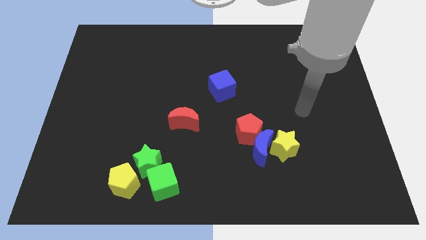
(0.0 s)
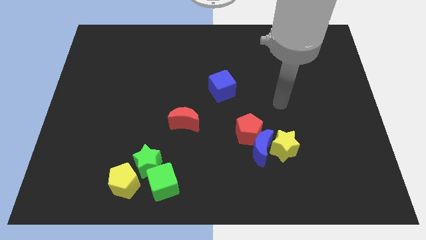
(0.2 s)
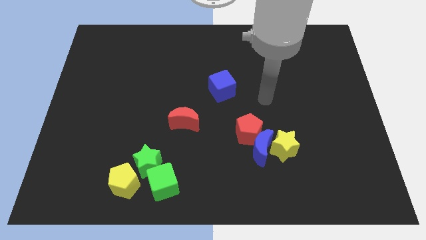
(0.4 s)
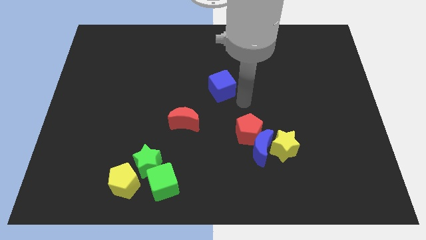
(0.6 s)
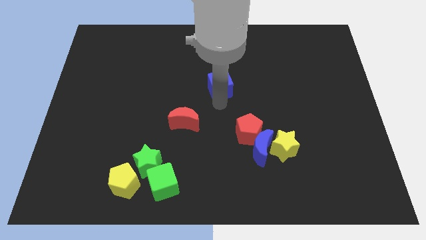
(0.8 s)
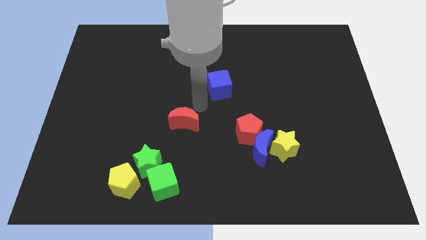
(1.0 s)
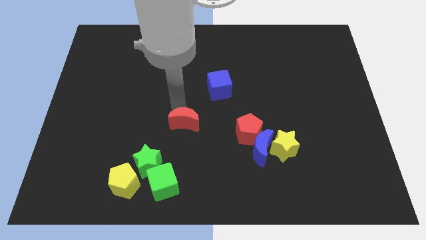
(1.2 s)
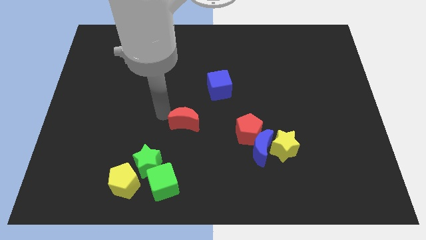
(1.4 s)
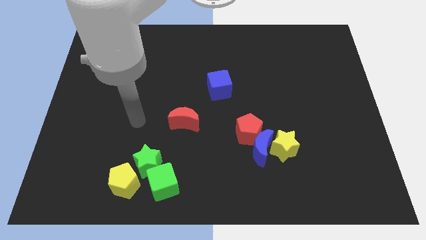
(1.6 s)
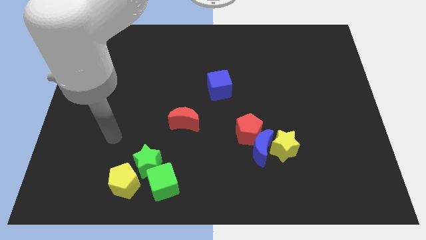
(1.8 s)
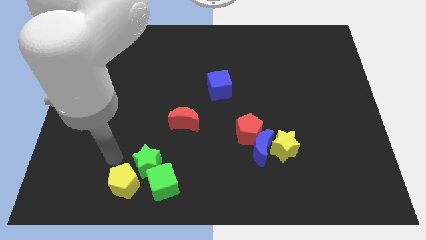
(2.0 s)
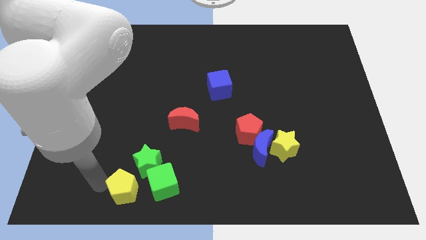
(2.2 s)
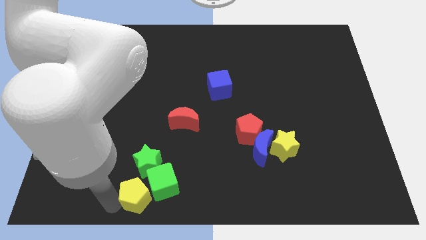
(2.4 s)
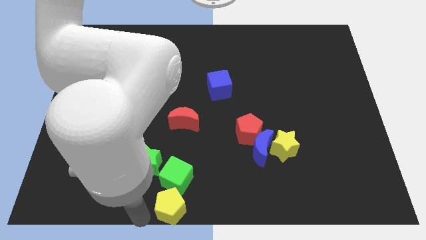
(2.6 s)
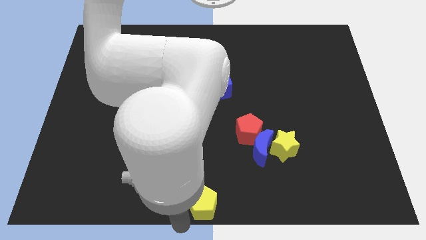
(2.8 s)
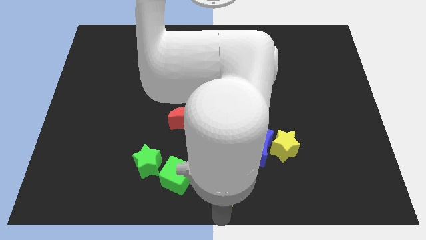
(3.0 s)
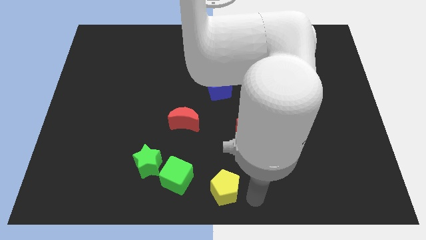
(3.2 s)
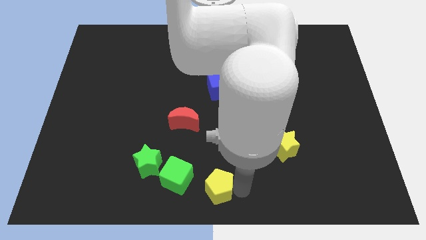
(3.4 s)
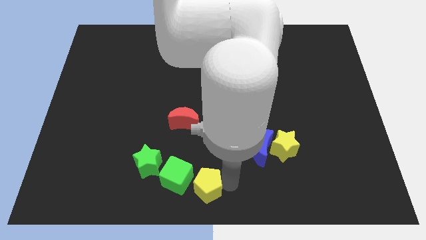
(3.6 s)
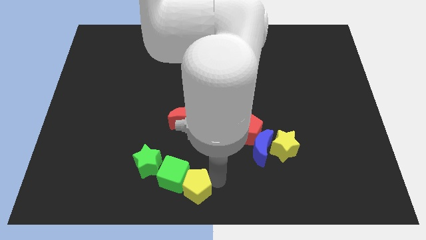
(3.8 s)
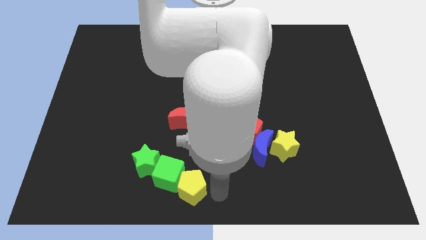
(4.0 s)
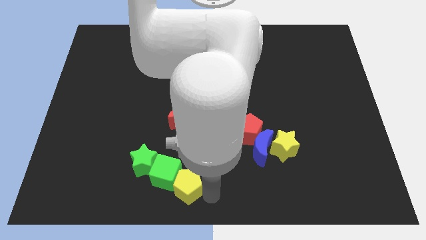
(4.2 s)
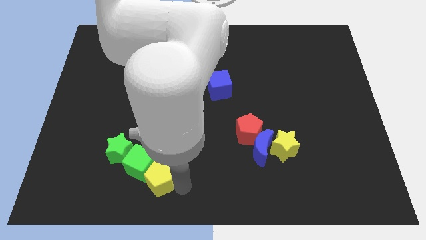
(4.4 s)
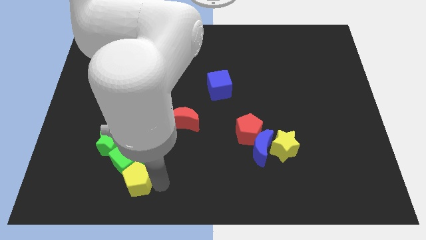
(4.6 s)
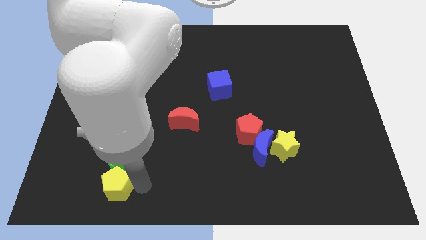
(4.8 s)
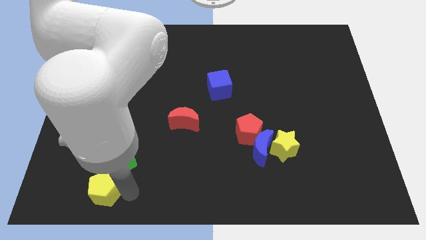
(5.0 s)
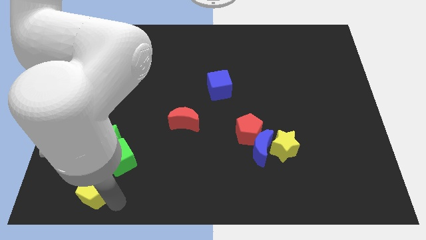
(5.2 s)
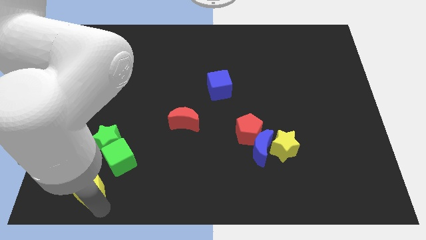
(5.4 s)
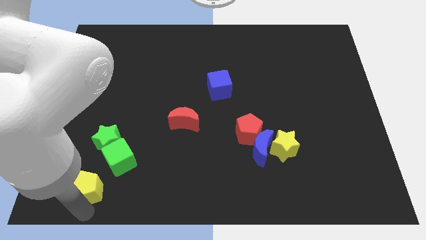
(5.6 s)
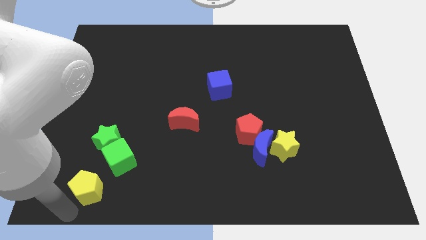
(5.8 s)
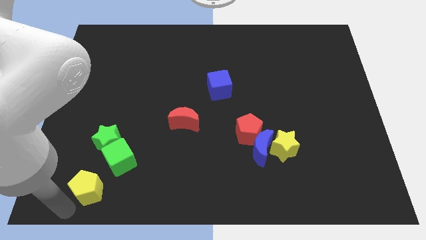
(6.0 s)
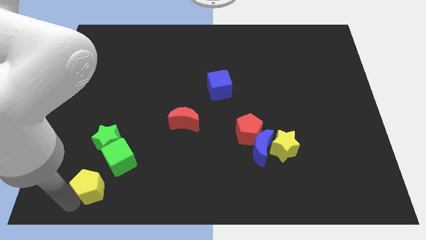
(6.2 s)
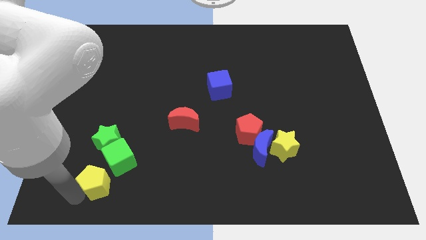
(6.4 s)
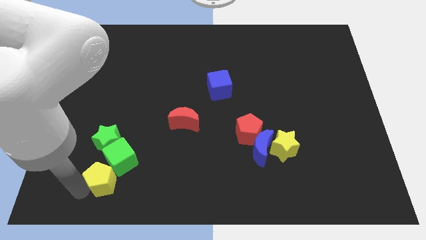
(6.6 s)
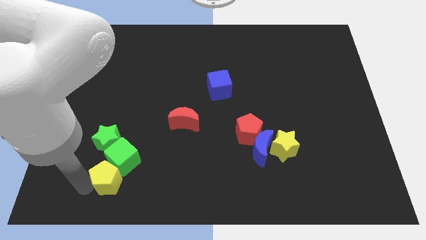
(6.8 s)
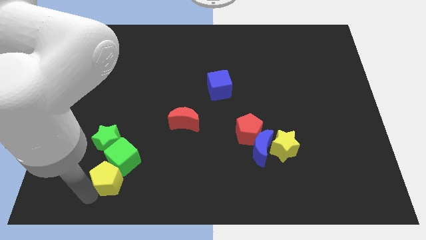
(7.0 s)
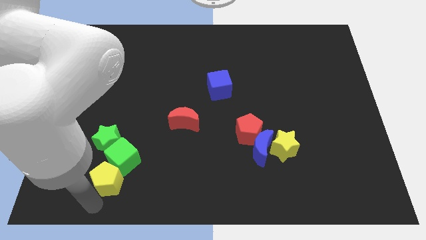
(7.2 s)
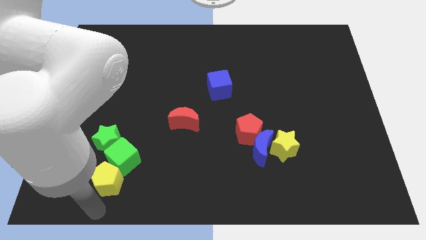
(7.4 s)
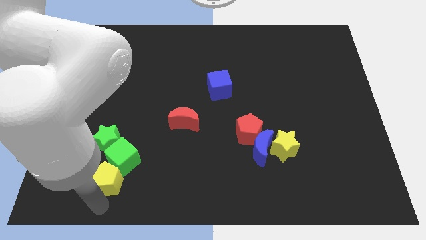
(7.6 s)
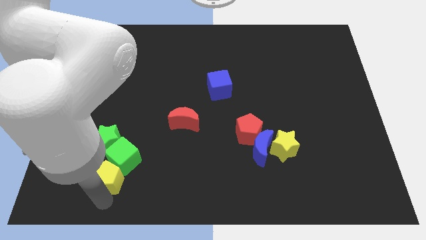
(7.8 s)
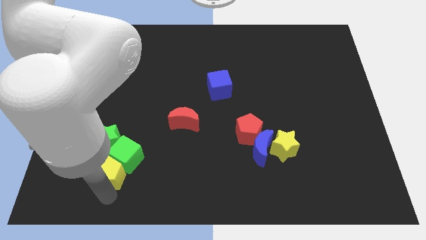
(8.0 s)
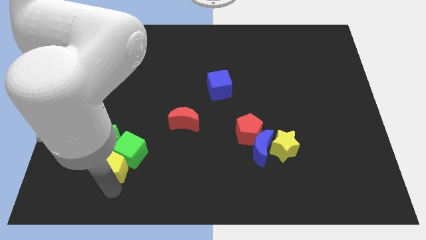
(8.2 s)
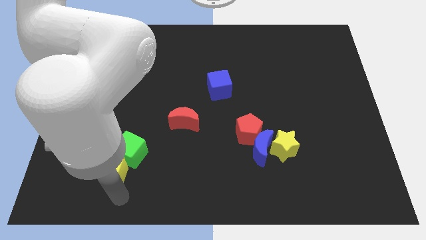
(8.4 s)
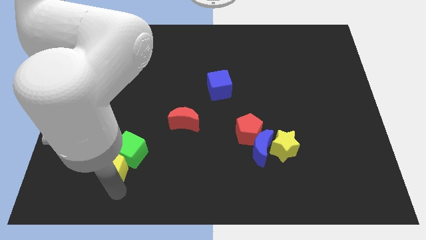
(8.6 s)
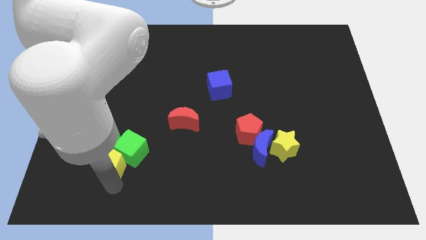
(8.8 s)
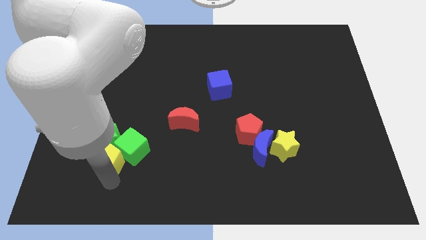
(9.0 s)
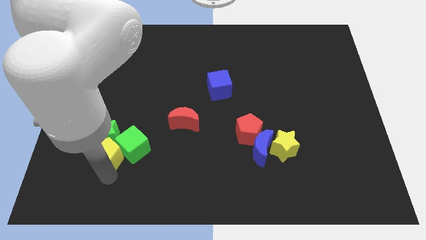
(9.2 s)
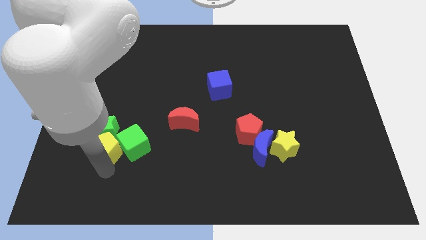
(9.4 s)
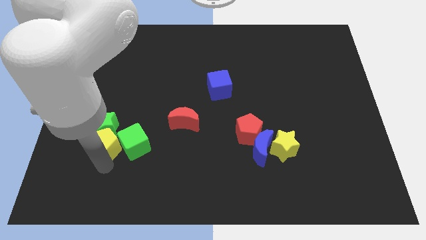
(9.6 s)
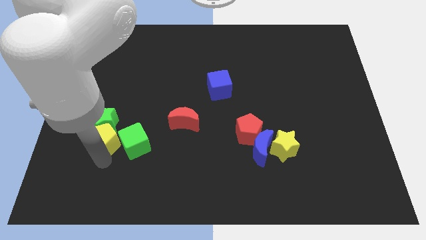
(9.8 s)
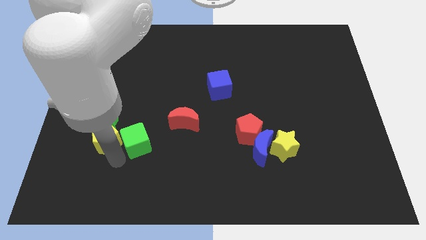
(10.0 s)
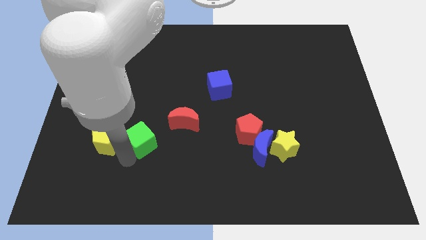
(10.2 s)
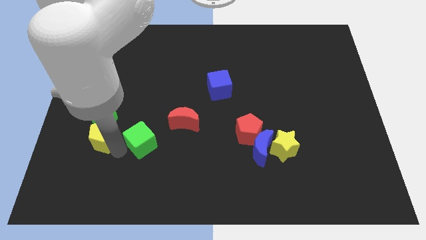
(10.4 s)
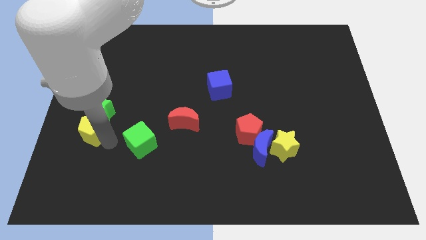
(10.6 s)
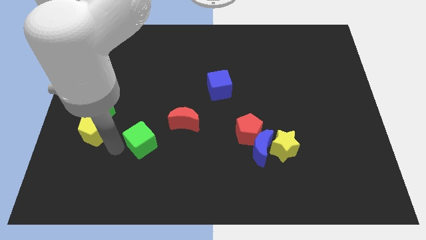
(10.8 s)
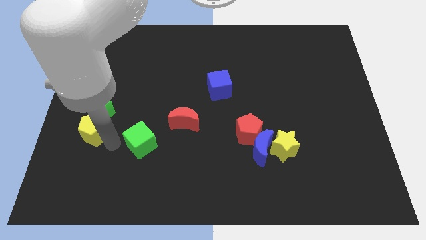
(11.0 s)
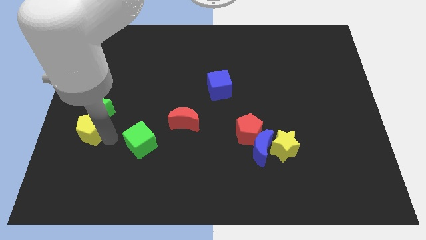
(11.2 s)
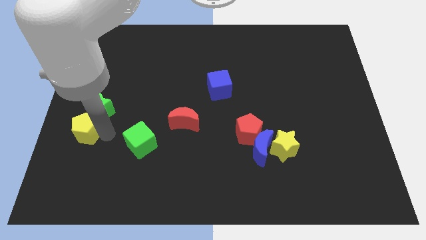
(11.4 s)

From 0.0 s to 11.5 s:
push the yellow pentagon to the left side of the board

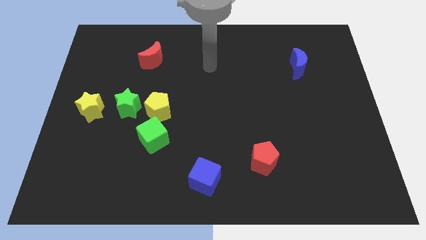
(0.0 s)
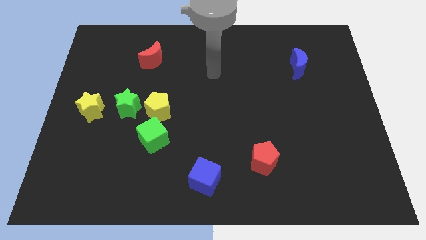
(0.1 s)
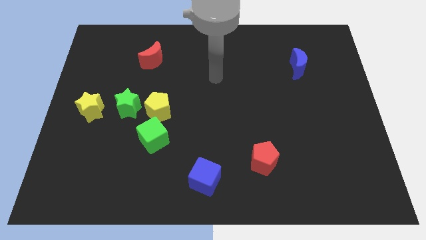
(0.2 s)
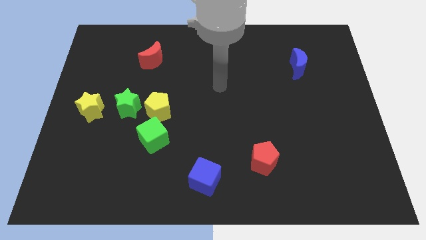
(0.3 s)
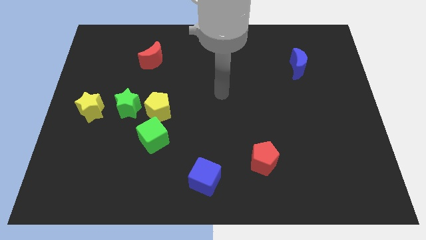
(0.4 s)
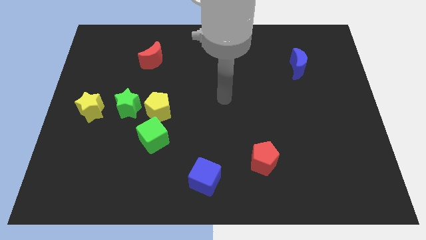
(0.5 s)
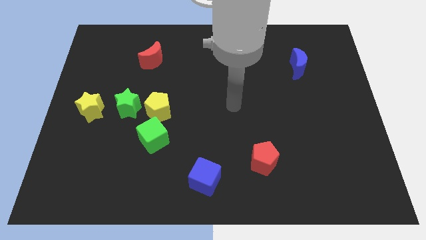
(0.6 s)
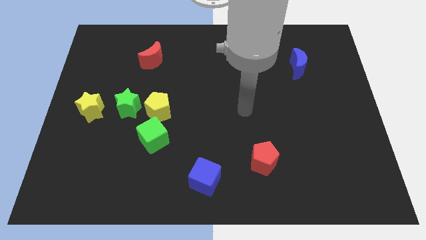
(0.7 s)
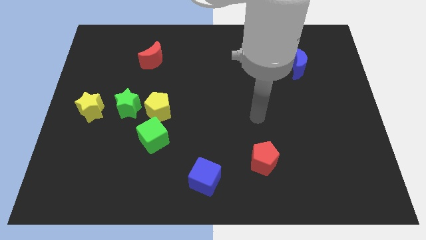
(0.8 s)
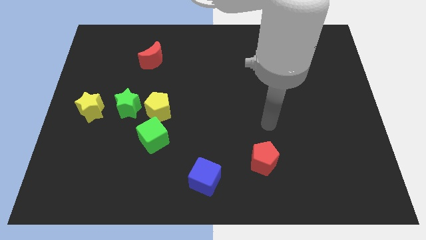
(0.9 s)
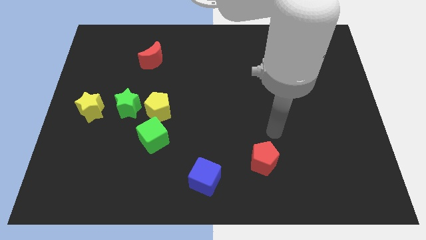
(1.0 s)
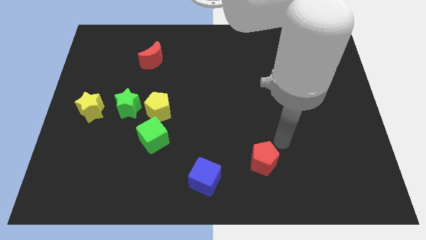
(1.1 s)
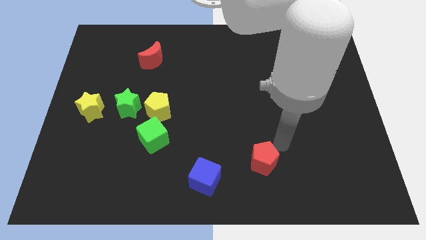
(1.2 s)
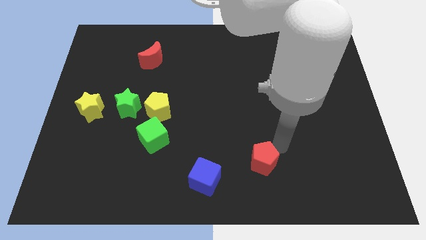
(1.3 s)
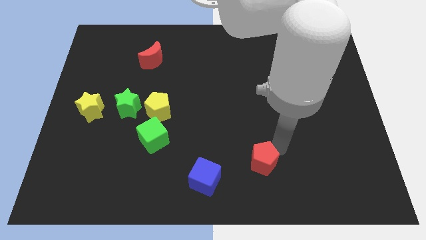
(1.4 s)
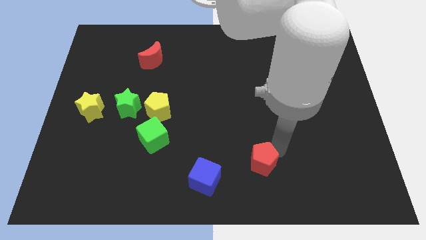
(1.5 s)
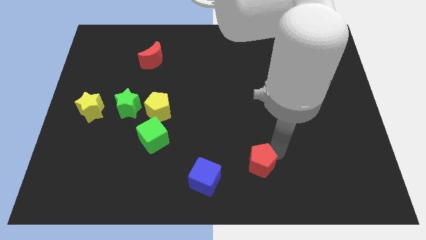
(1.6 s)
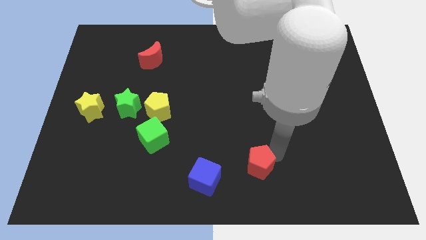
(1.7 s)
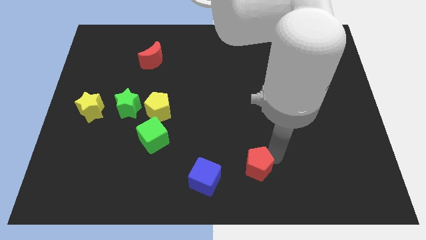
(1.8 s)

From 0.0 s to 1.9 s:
push the red pentagon to the bottom
